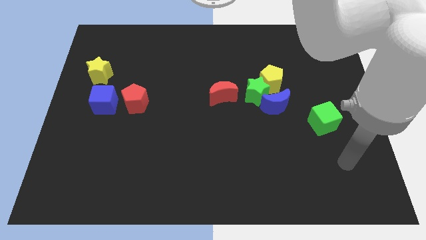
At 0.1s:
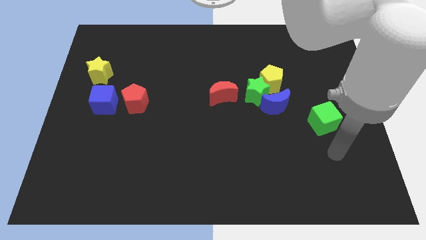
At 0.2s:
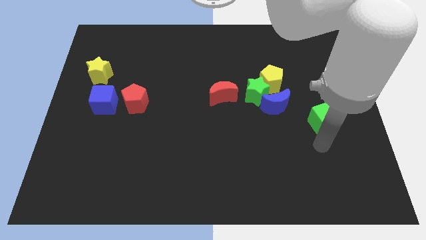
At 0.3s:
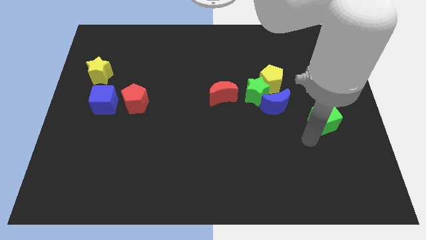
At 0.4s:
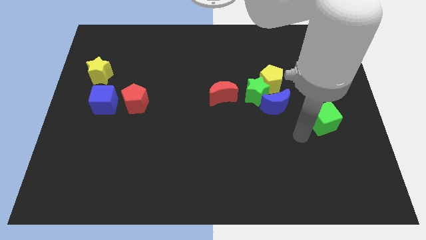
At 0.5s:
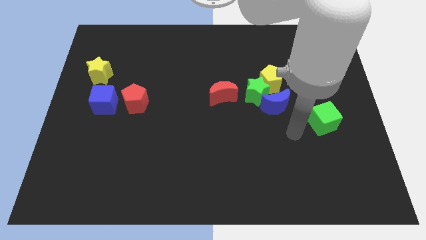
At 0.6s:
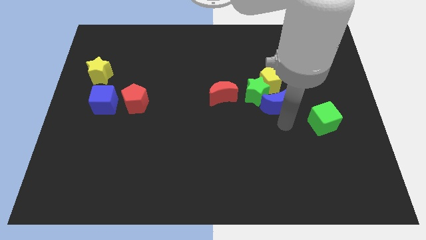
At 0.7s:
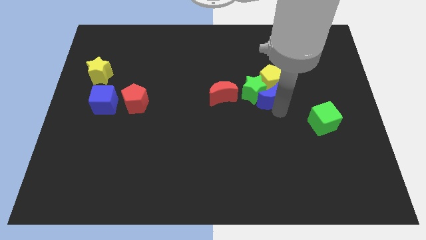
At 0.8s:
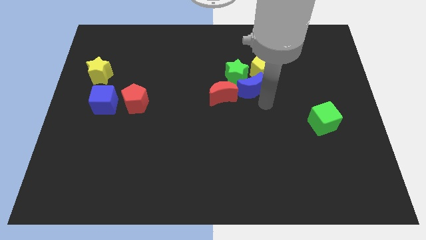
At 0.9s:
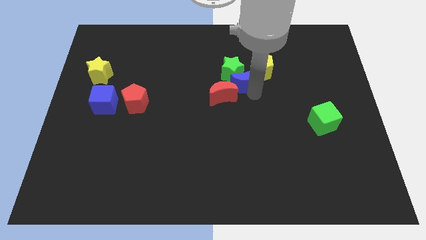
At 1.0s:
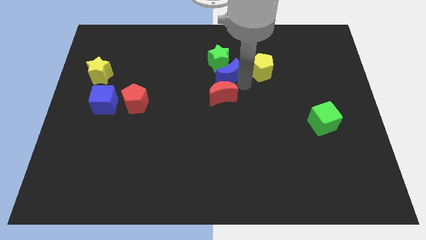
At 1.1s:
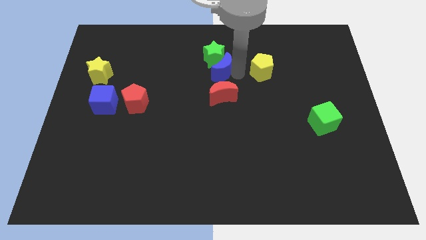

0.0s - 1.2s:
separate the yellow pentagon from the green star and blue moon

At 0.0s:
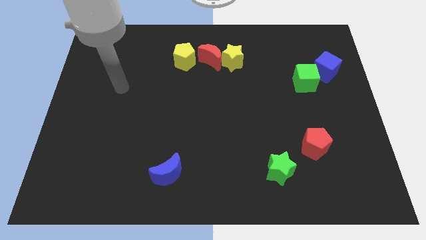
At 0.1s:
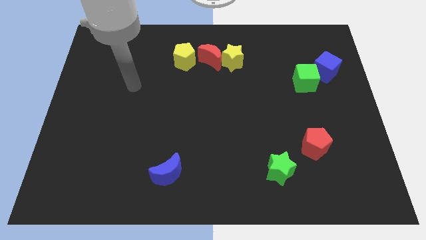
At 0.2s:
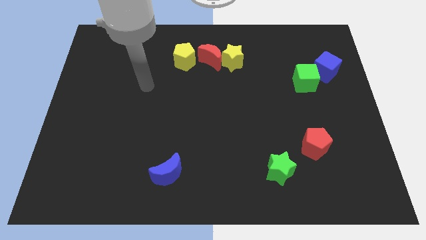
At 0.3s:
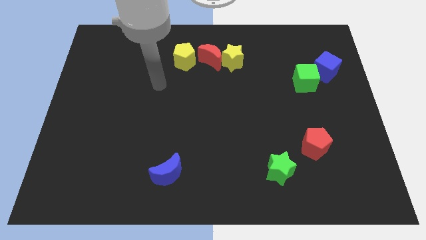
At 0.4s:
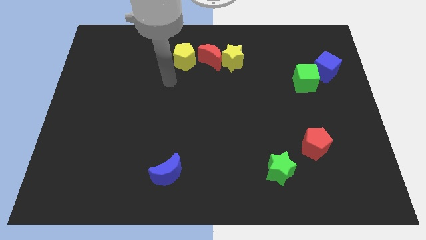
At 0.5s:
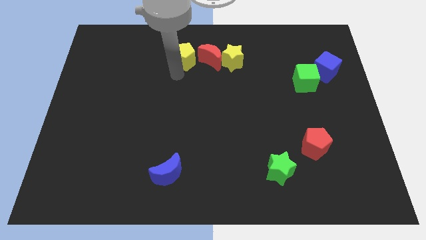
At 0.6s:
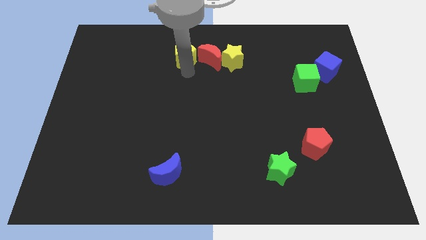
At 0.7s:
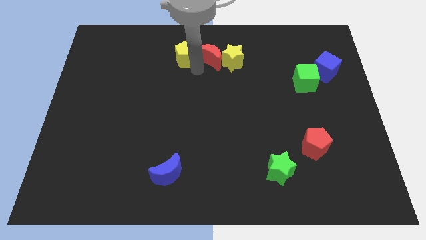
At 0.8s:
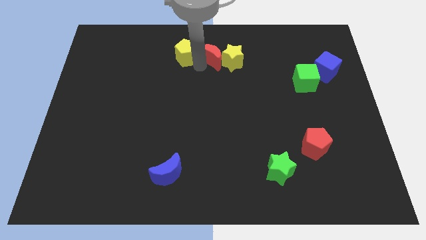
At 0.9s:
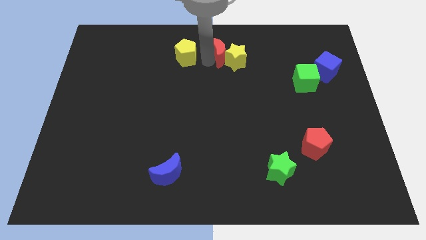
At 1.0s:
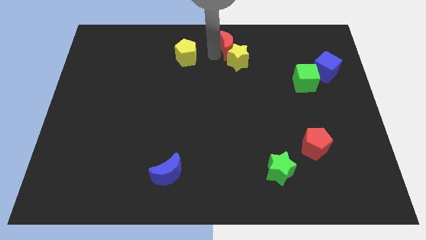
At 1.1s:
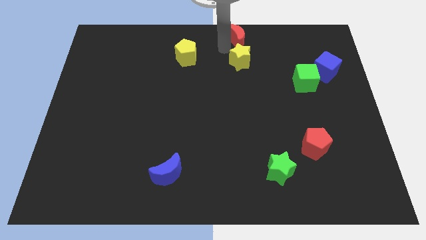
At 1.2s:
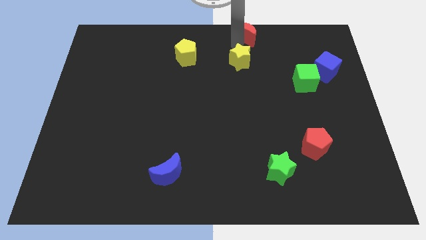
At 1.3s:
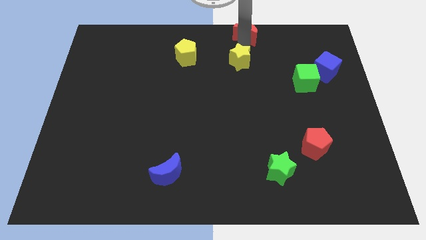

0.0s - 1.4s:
pull the yellow star apart from the red moon

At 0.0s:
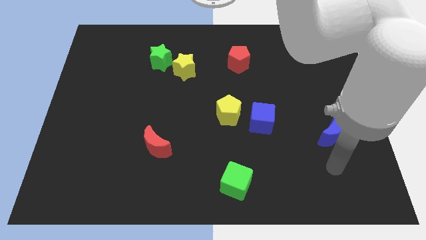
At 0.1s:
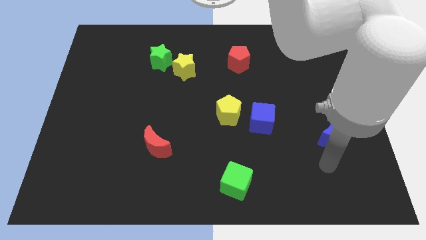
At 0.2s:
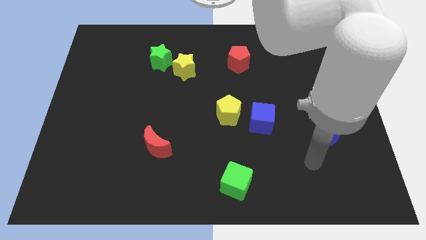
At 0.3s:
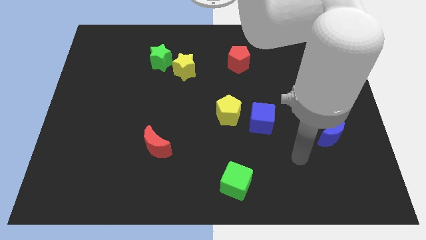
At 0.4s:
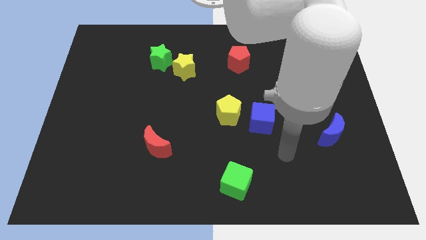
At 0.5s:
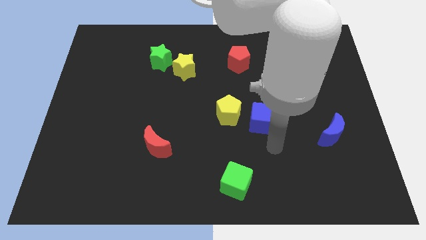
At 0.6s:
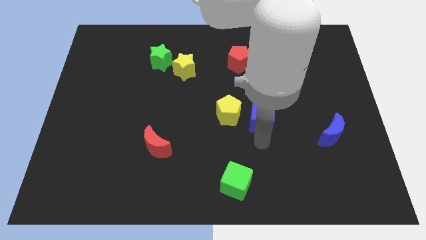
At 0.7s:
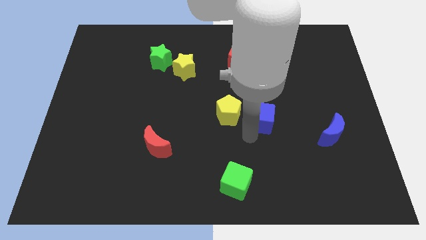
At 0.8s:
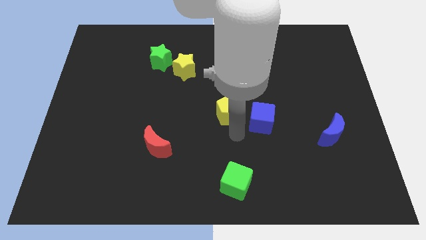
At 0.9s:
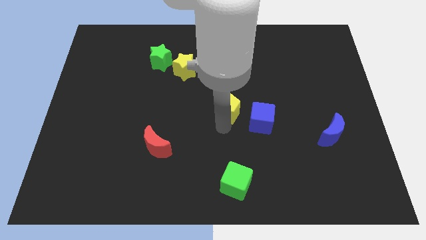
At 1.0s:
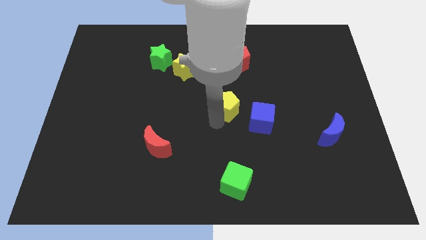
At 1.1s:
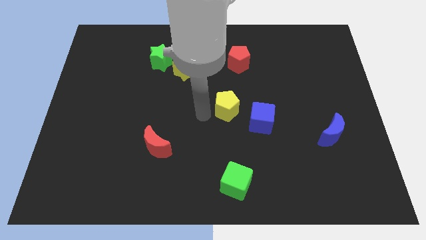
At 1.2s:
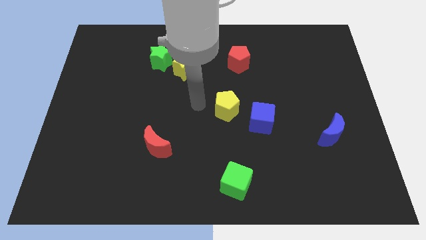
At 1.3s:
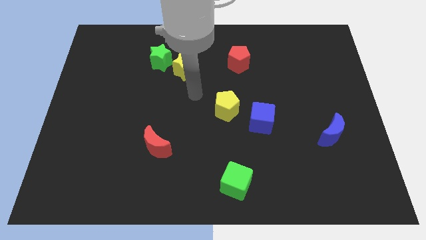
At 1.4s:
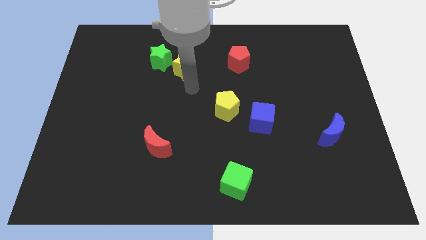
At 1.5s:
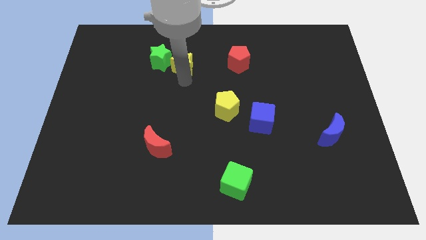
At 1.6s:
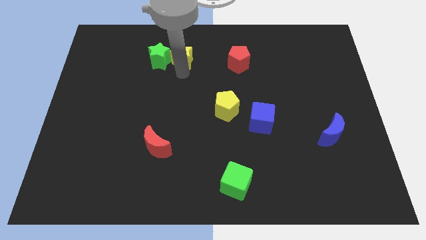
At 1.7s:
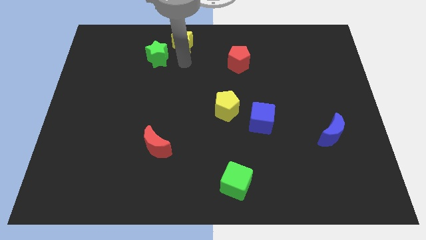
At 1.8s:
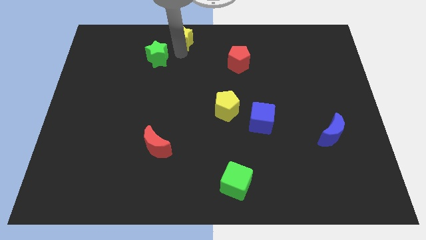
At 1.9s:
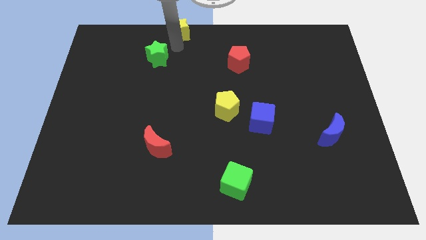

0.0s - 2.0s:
move the green star away from the yellow star

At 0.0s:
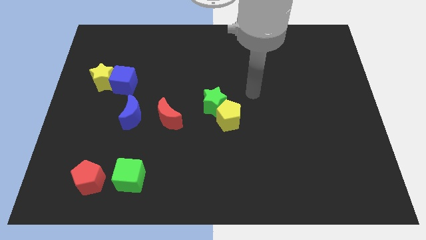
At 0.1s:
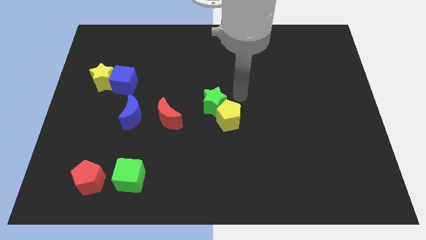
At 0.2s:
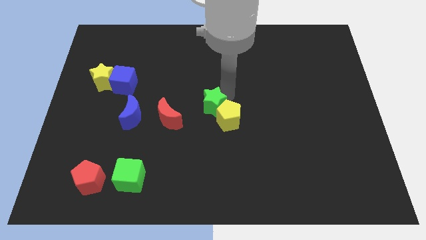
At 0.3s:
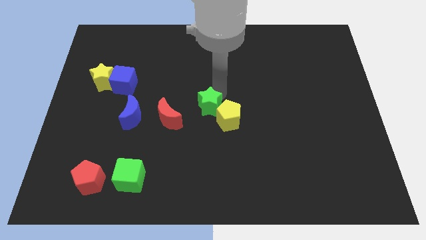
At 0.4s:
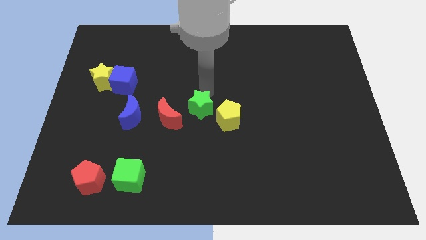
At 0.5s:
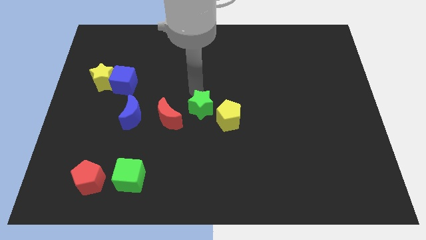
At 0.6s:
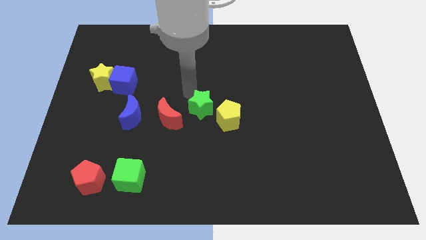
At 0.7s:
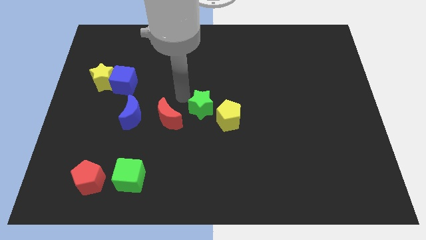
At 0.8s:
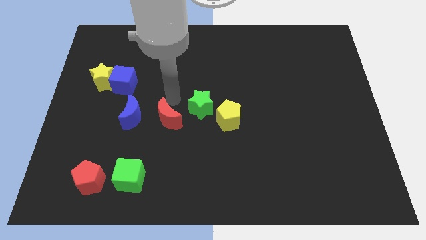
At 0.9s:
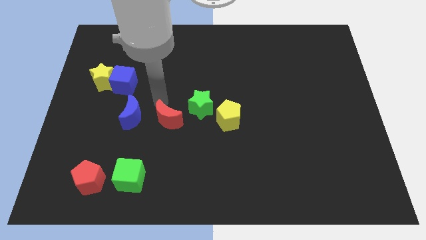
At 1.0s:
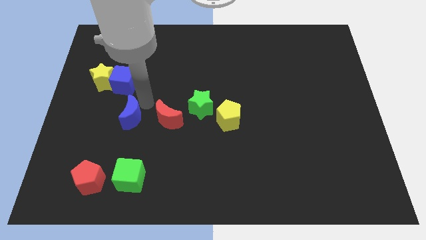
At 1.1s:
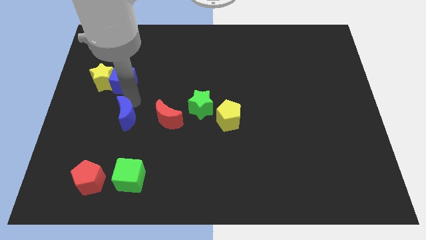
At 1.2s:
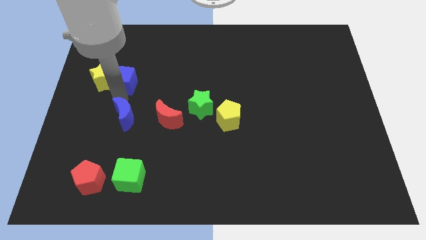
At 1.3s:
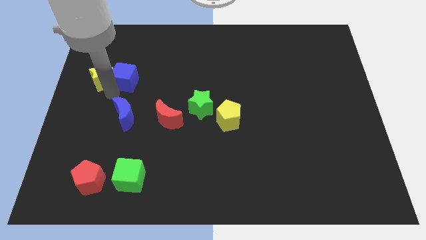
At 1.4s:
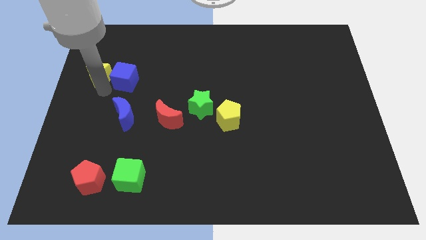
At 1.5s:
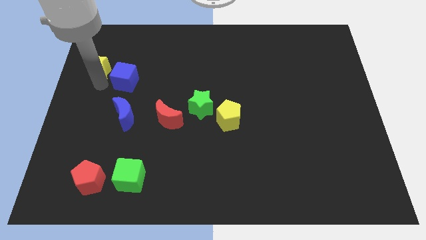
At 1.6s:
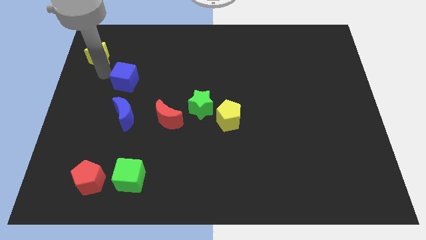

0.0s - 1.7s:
separate the blue cube from the yellow star

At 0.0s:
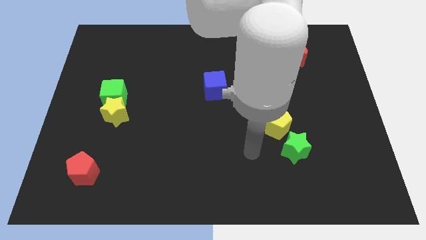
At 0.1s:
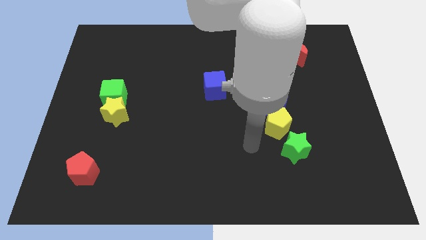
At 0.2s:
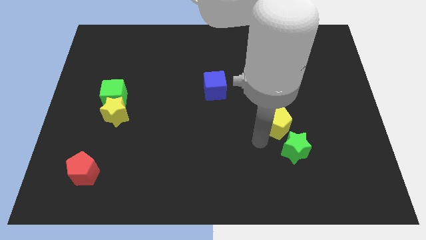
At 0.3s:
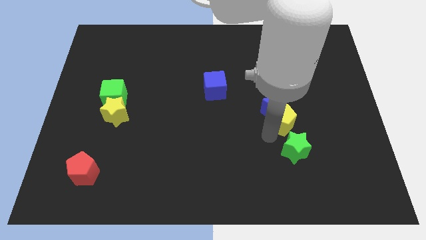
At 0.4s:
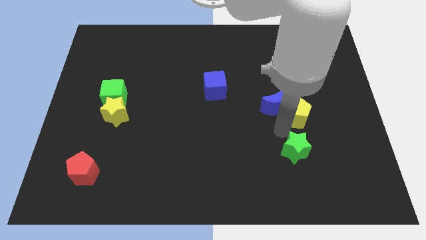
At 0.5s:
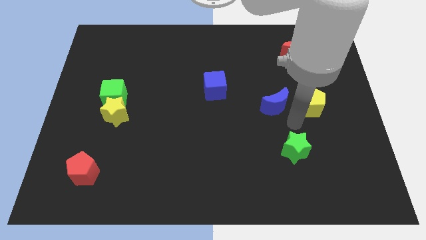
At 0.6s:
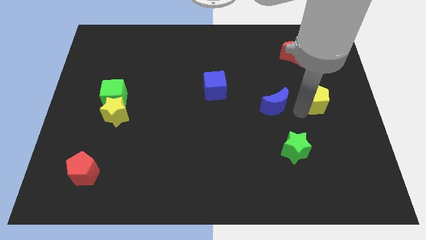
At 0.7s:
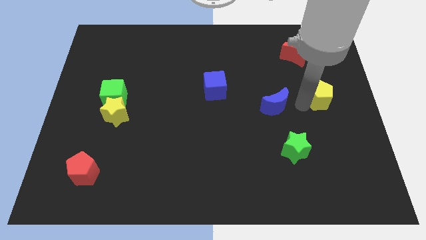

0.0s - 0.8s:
separate the blue moon from the yellow pentagon

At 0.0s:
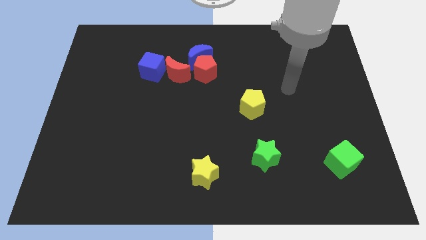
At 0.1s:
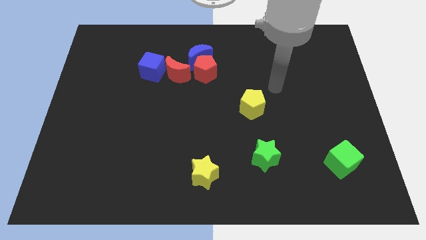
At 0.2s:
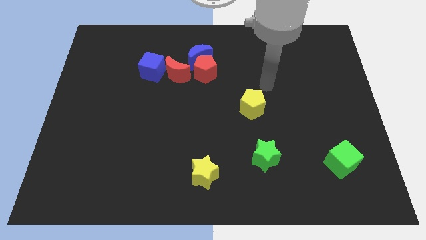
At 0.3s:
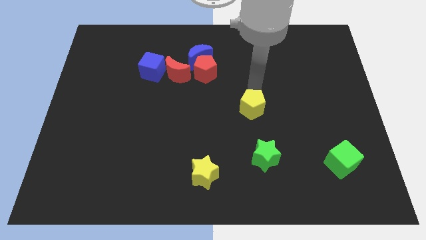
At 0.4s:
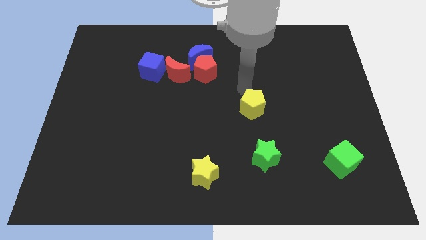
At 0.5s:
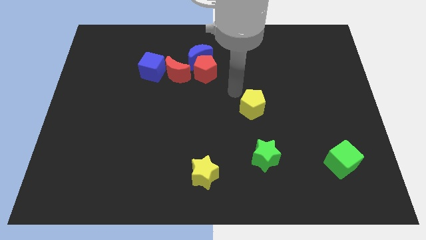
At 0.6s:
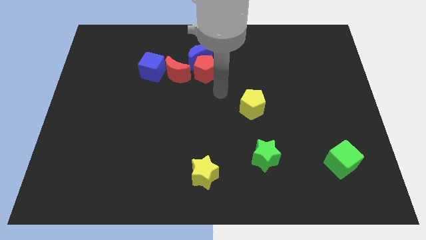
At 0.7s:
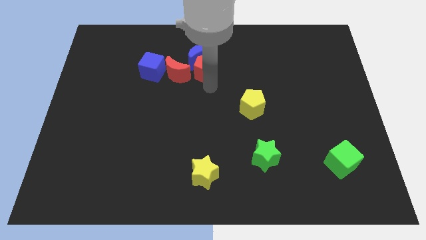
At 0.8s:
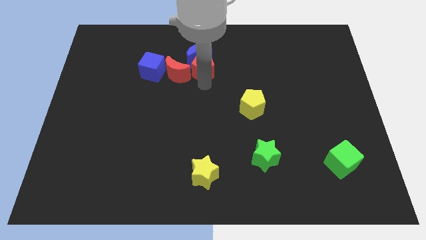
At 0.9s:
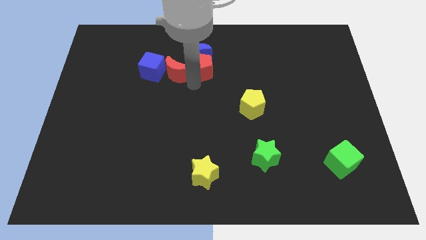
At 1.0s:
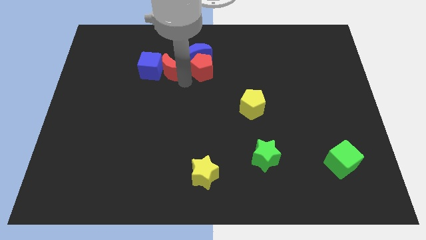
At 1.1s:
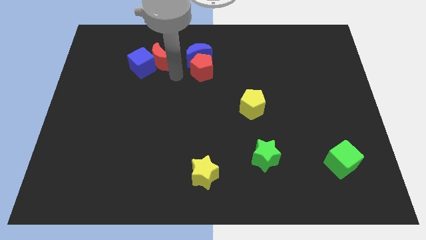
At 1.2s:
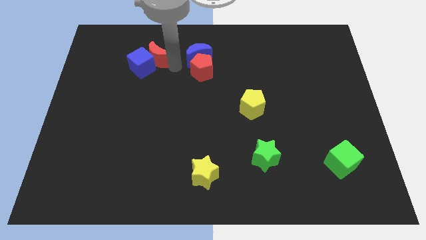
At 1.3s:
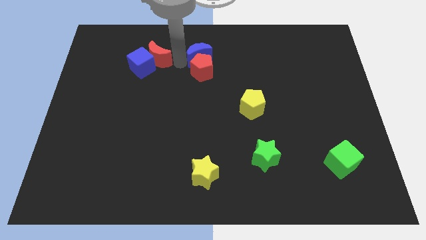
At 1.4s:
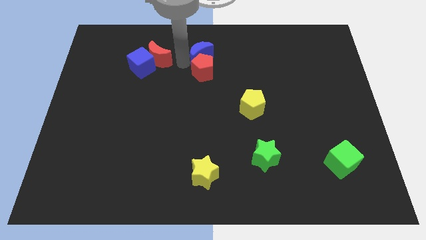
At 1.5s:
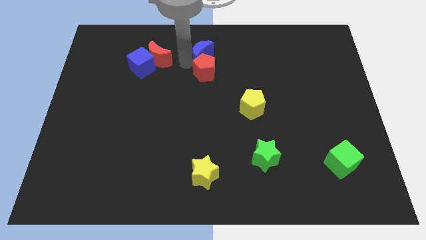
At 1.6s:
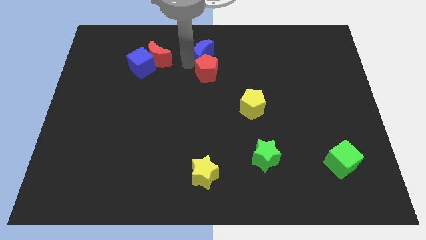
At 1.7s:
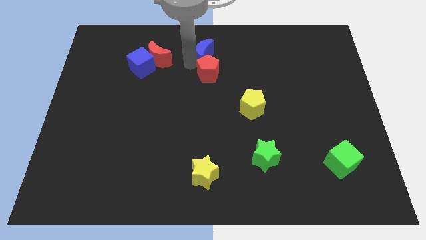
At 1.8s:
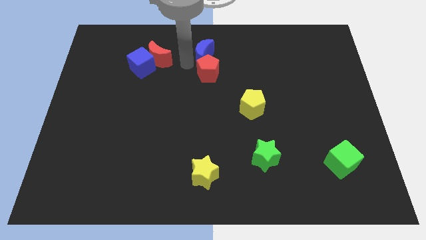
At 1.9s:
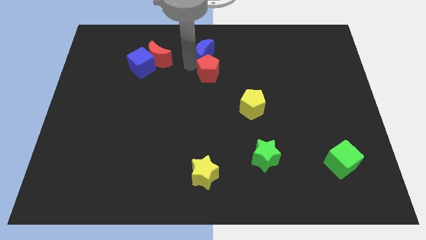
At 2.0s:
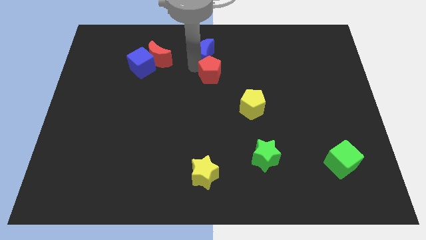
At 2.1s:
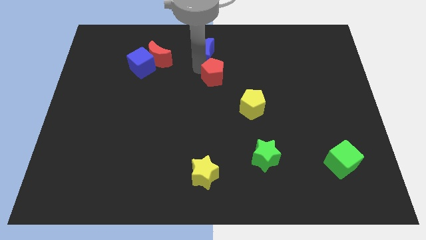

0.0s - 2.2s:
separate the red pentagon from the blue moon and red moon
